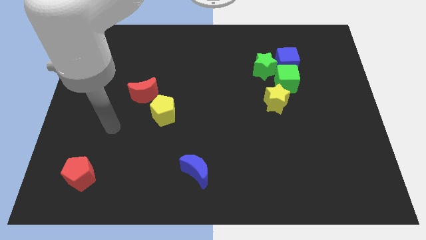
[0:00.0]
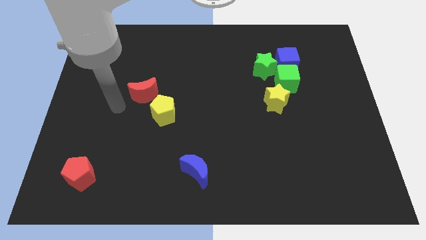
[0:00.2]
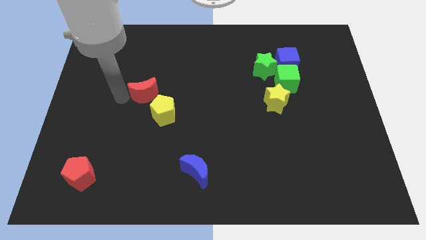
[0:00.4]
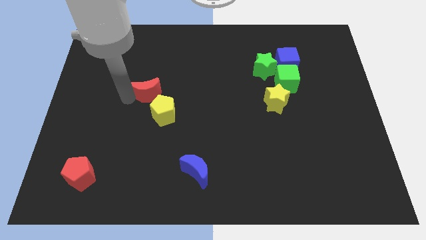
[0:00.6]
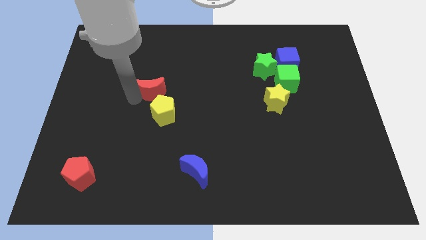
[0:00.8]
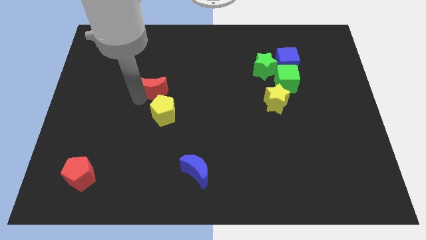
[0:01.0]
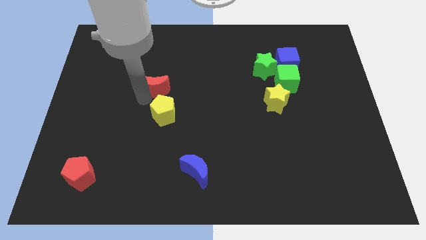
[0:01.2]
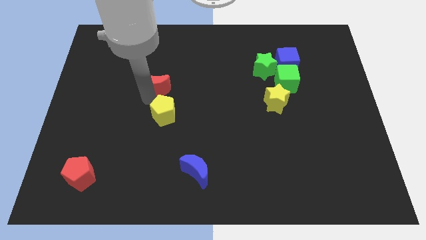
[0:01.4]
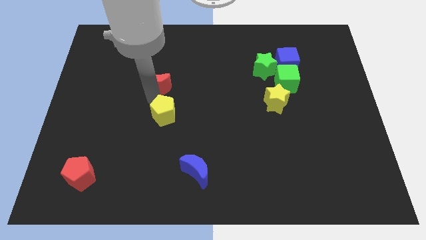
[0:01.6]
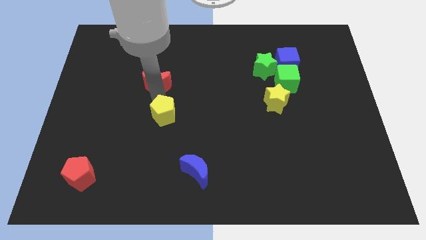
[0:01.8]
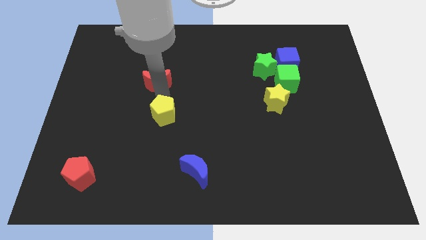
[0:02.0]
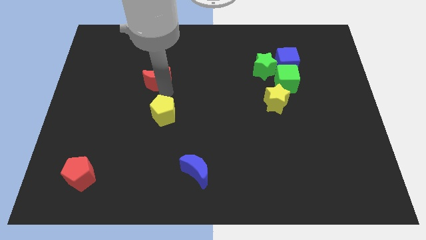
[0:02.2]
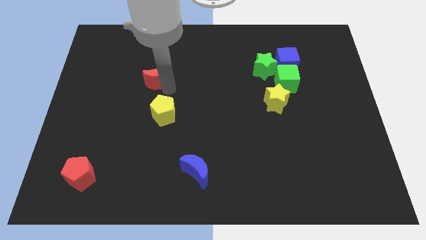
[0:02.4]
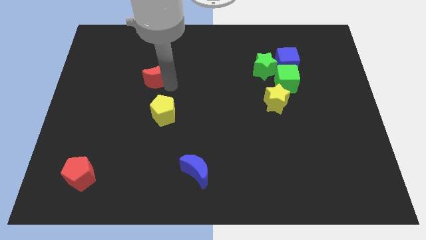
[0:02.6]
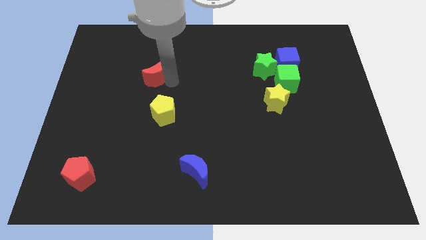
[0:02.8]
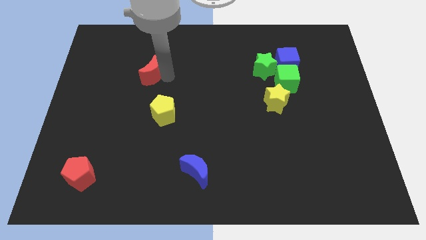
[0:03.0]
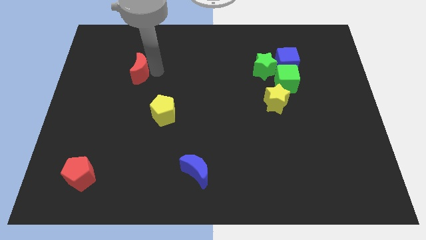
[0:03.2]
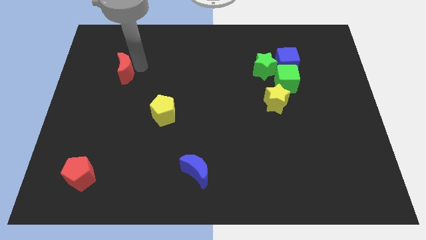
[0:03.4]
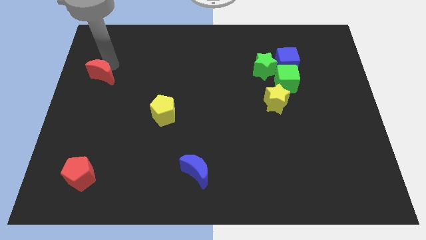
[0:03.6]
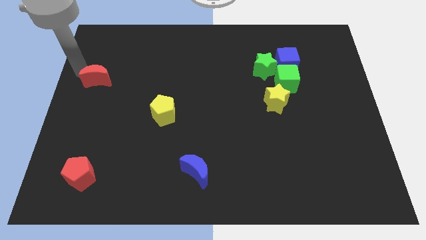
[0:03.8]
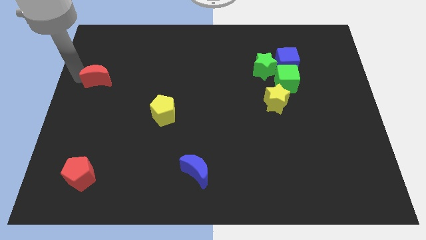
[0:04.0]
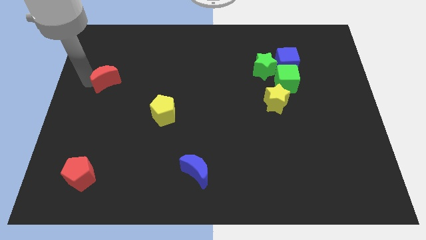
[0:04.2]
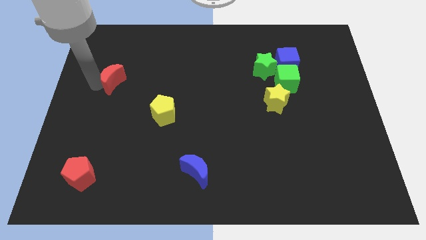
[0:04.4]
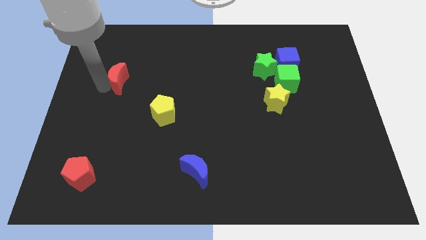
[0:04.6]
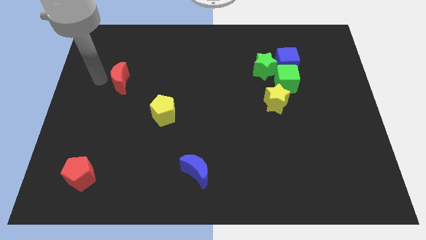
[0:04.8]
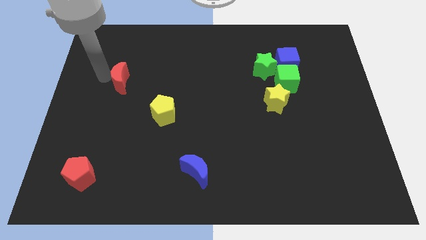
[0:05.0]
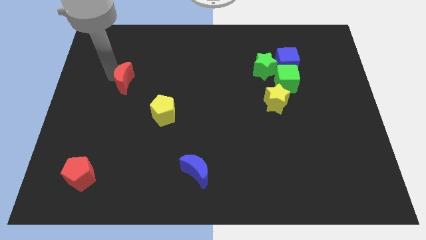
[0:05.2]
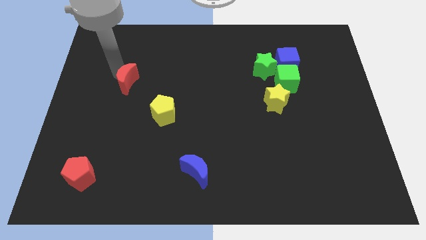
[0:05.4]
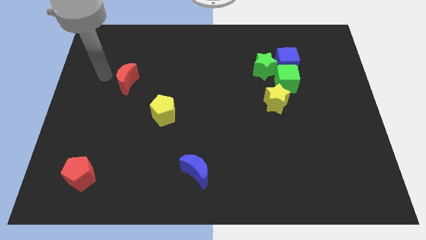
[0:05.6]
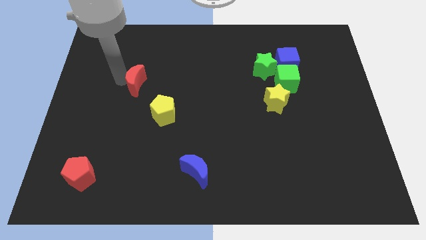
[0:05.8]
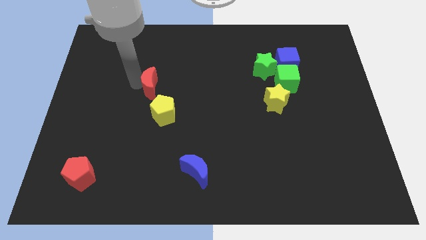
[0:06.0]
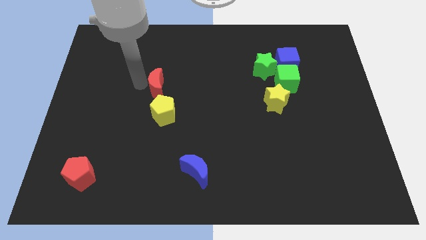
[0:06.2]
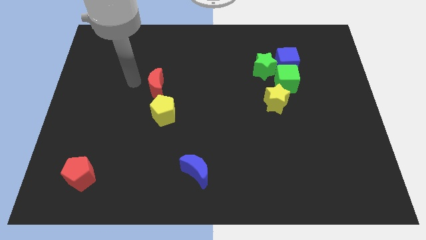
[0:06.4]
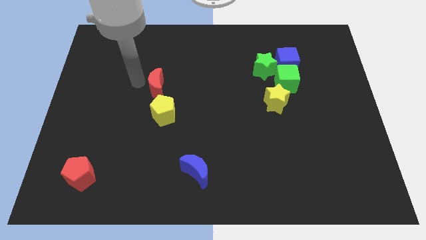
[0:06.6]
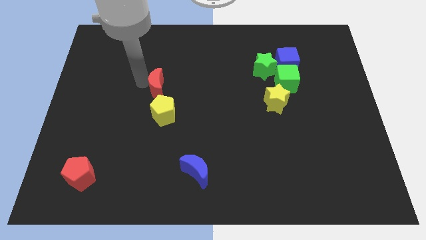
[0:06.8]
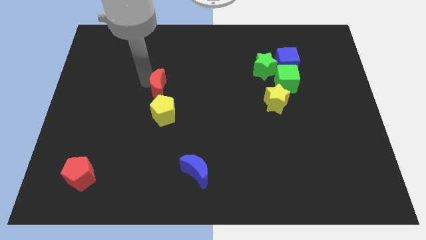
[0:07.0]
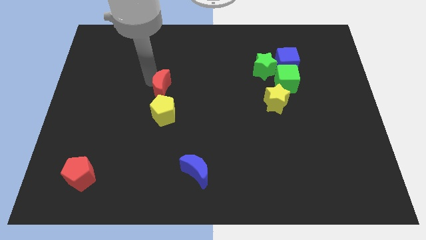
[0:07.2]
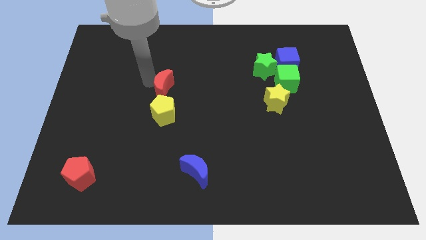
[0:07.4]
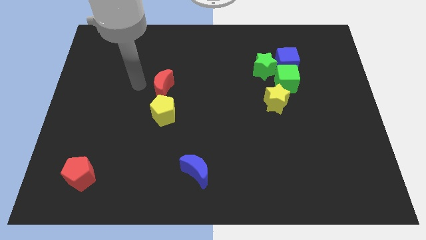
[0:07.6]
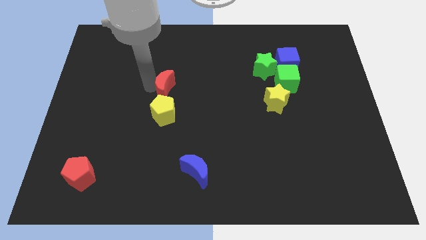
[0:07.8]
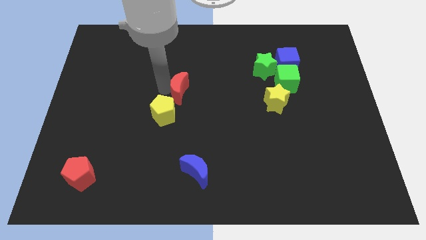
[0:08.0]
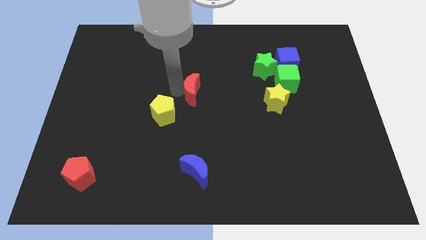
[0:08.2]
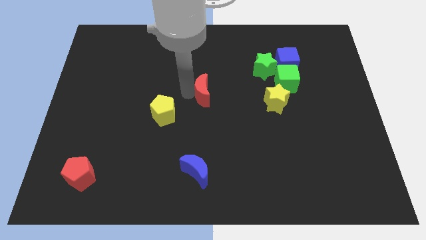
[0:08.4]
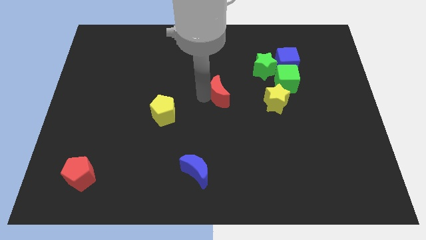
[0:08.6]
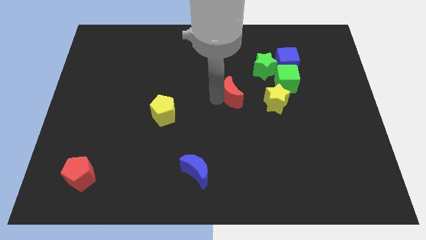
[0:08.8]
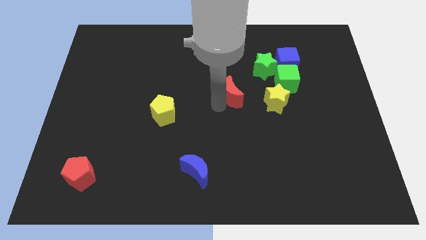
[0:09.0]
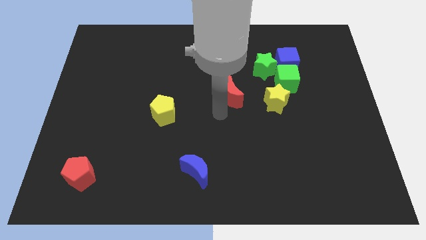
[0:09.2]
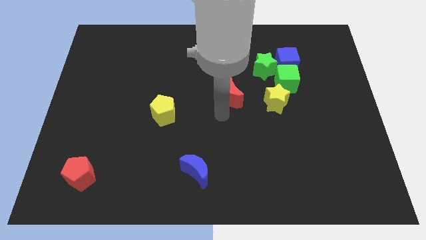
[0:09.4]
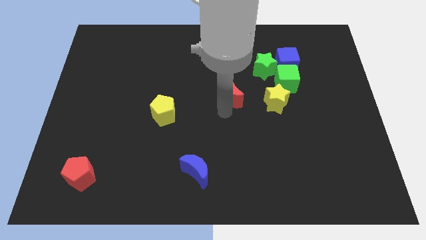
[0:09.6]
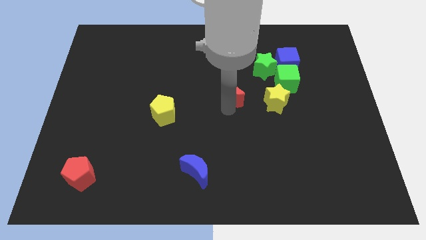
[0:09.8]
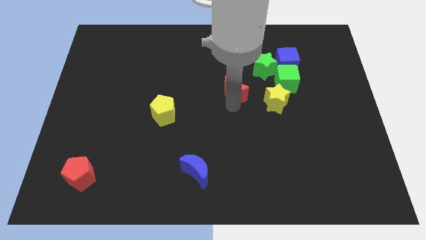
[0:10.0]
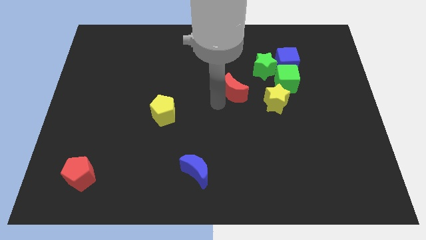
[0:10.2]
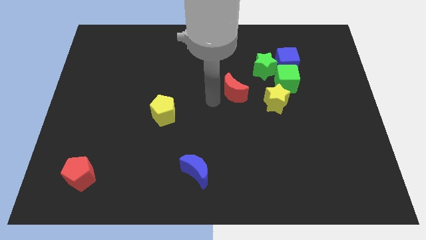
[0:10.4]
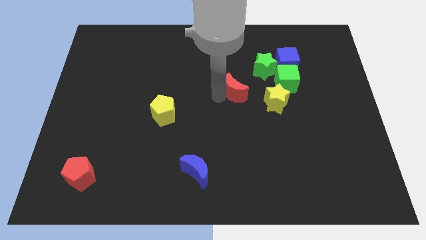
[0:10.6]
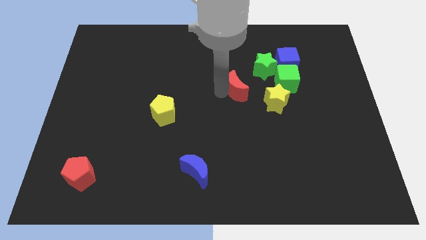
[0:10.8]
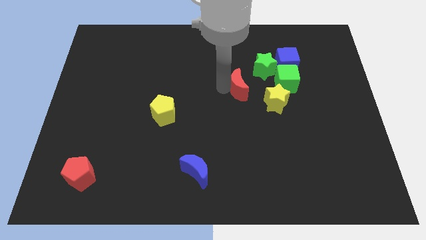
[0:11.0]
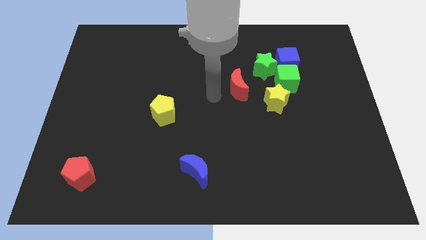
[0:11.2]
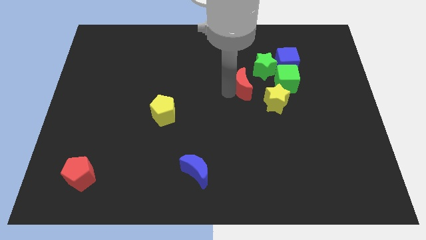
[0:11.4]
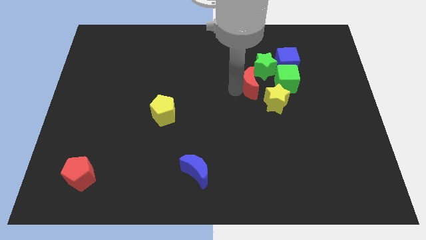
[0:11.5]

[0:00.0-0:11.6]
move the red moon diagonally down and to the left of the blue cube

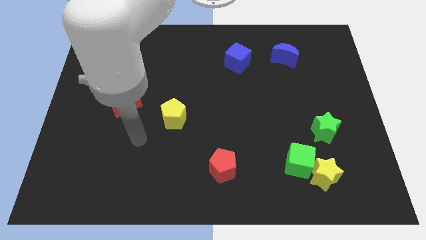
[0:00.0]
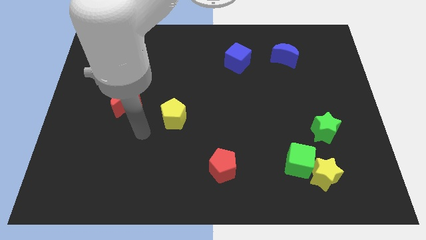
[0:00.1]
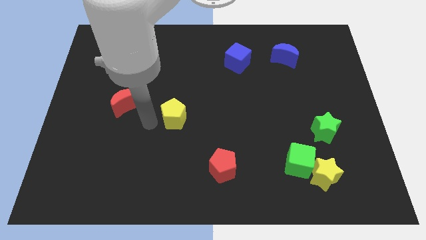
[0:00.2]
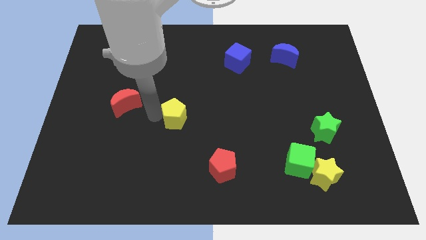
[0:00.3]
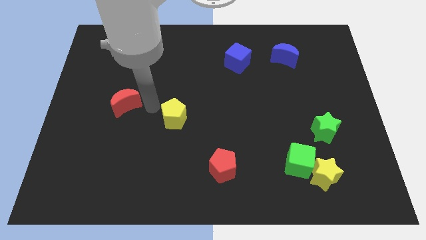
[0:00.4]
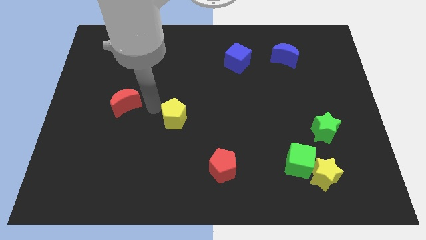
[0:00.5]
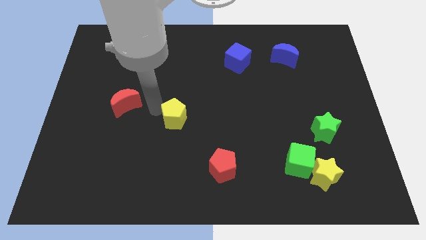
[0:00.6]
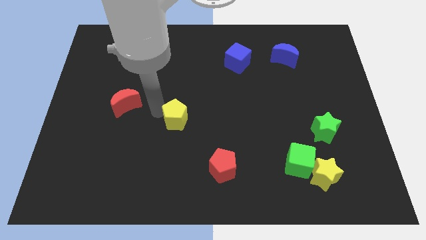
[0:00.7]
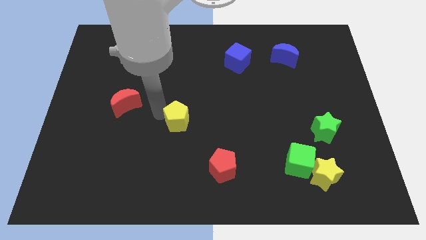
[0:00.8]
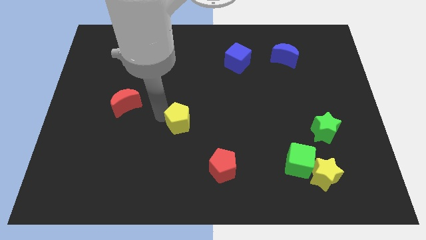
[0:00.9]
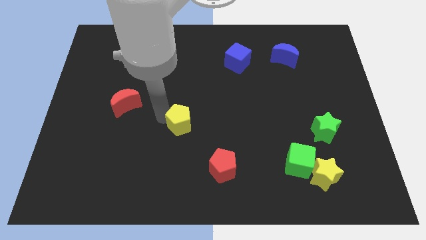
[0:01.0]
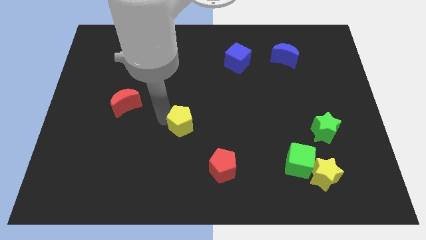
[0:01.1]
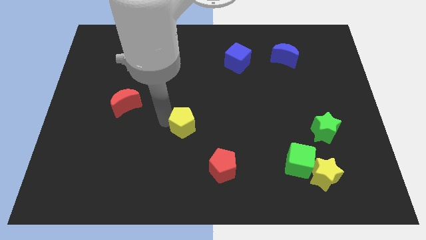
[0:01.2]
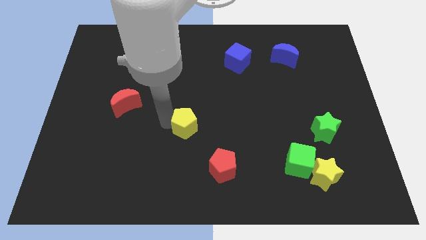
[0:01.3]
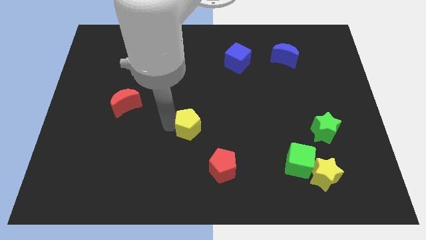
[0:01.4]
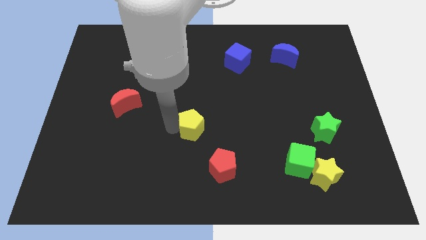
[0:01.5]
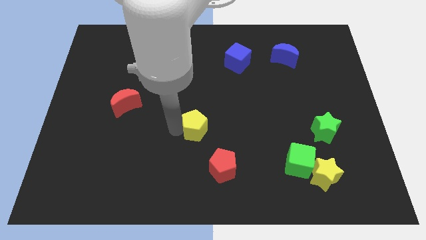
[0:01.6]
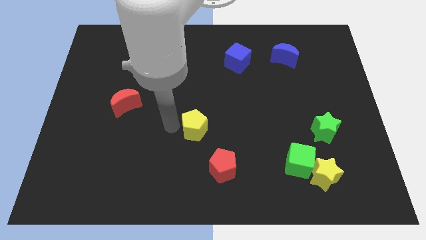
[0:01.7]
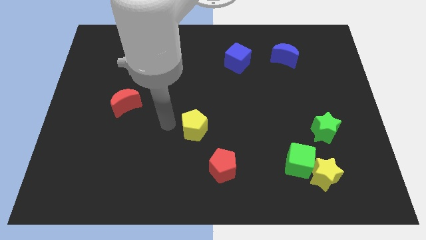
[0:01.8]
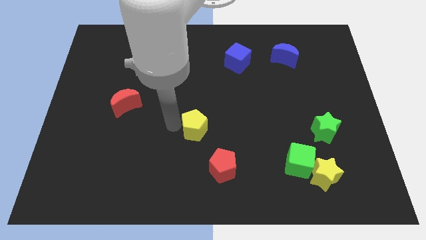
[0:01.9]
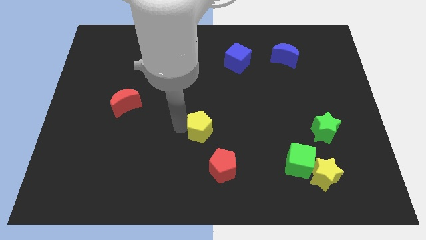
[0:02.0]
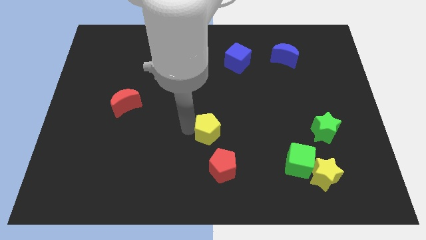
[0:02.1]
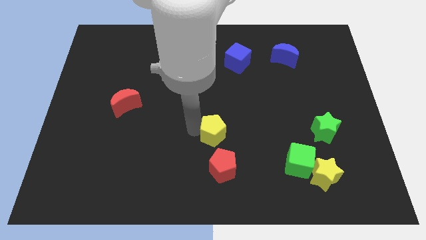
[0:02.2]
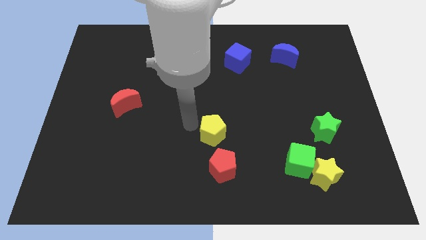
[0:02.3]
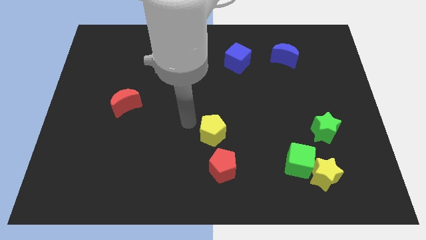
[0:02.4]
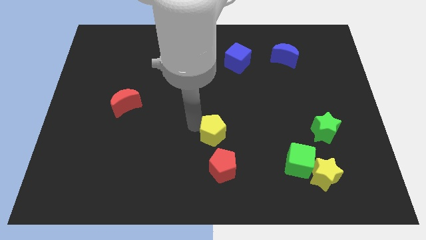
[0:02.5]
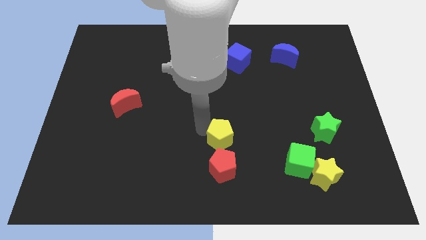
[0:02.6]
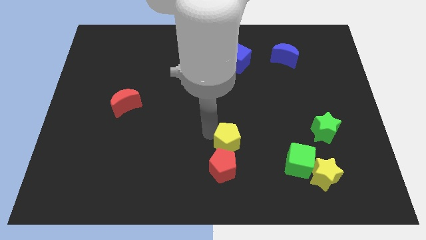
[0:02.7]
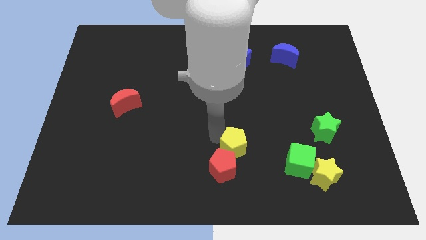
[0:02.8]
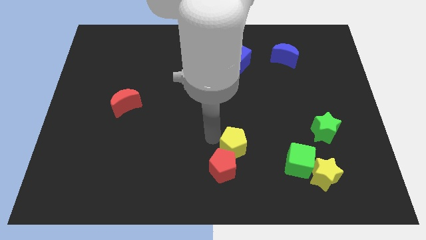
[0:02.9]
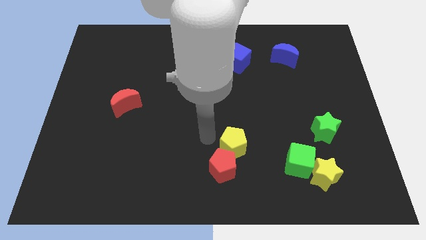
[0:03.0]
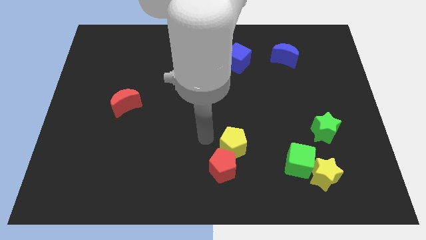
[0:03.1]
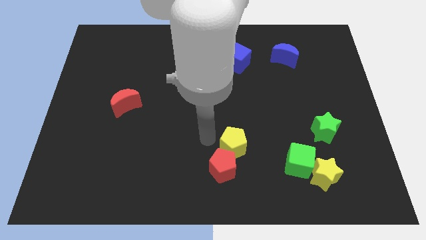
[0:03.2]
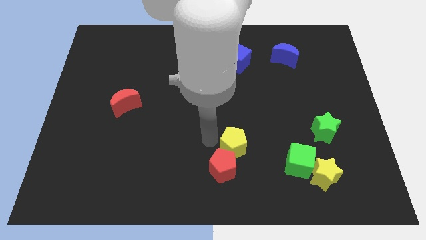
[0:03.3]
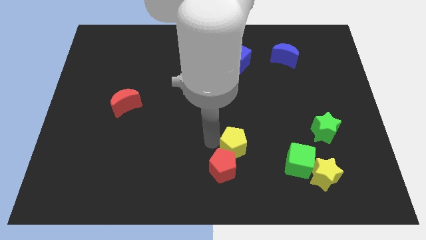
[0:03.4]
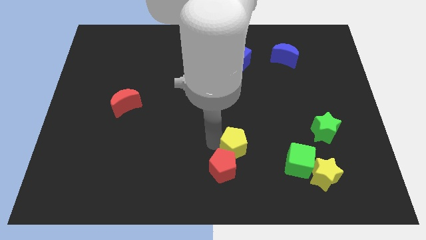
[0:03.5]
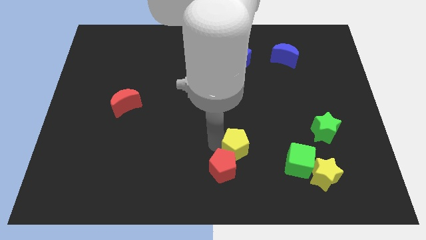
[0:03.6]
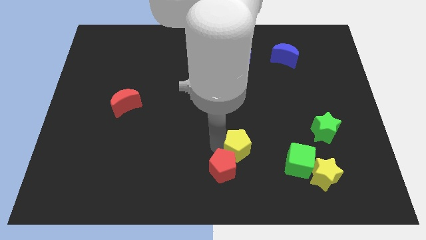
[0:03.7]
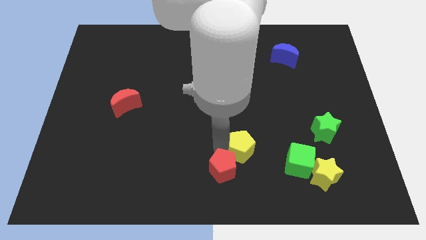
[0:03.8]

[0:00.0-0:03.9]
put the yellow pentagon right of the red pentagon
